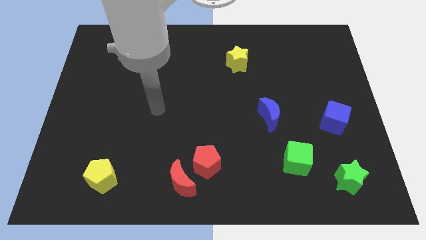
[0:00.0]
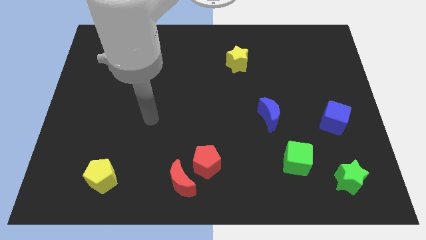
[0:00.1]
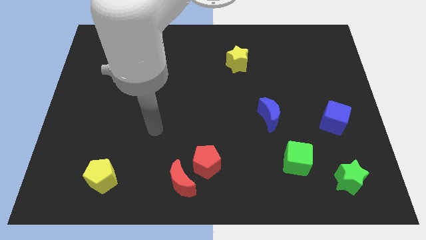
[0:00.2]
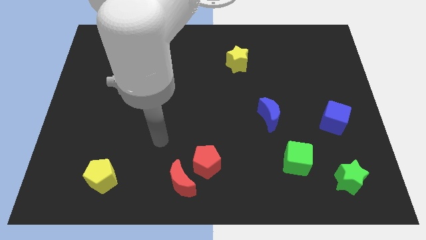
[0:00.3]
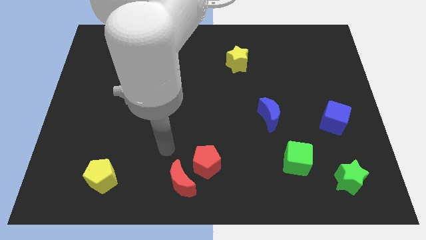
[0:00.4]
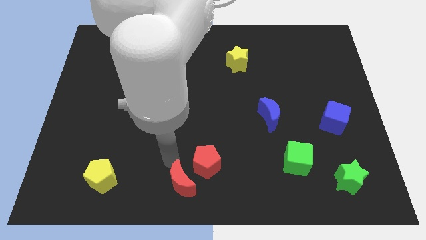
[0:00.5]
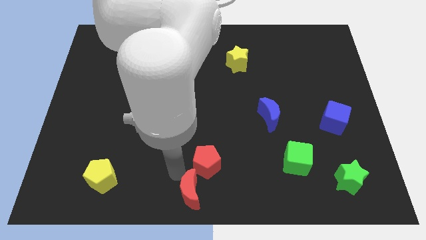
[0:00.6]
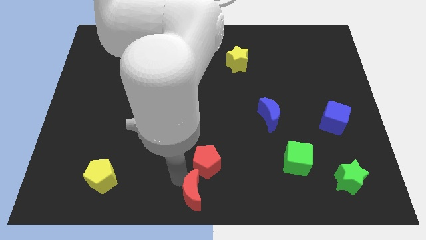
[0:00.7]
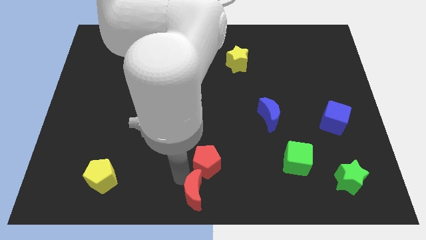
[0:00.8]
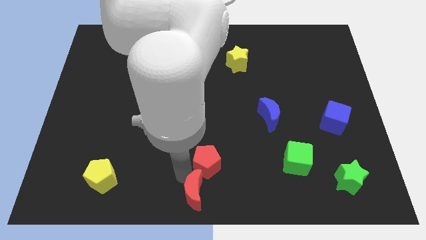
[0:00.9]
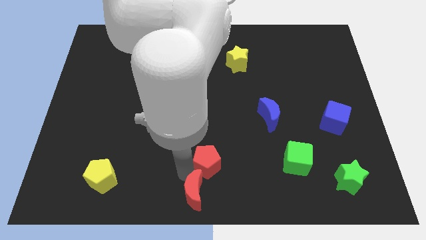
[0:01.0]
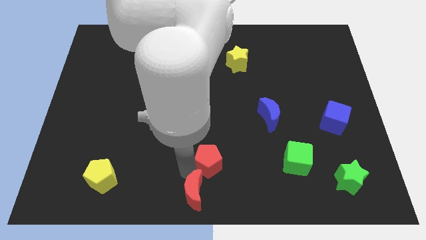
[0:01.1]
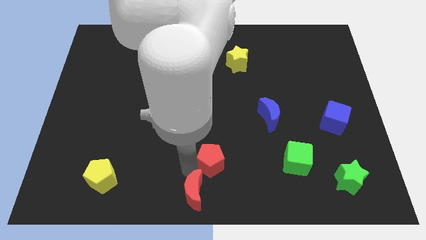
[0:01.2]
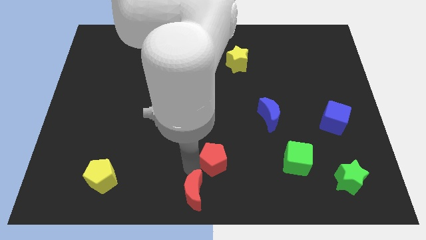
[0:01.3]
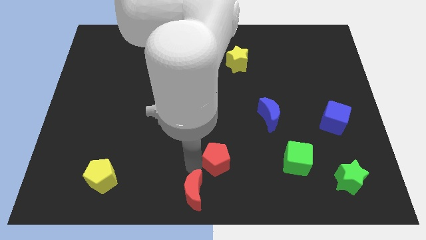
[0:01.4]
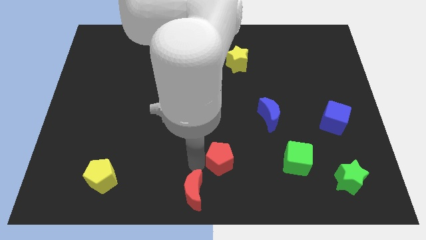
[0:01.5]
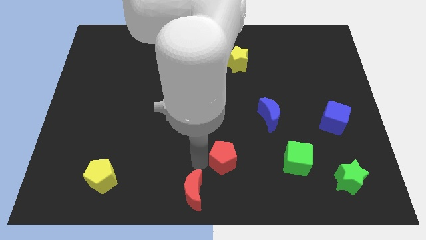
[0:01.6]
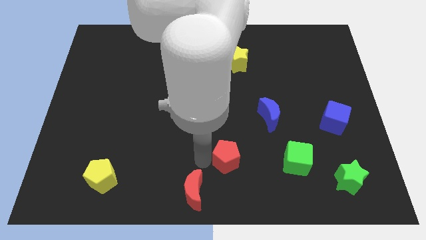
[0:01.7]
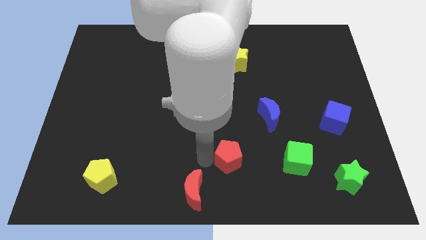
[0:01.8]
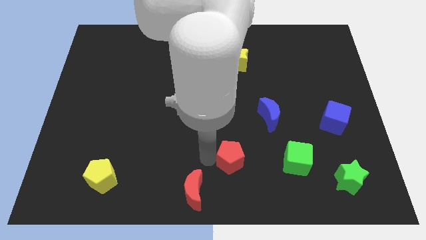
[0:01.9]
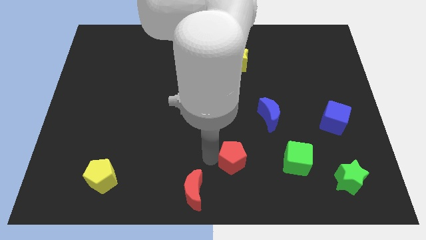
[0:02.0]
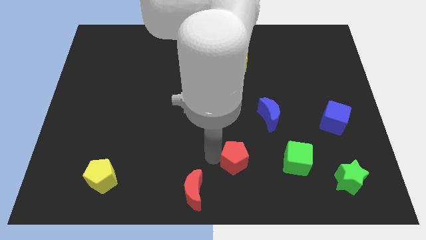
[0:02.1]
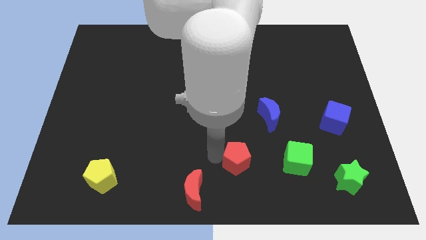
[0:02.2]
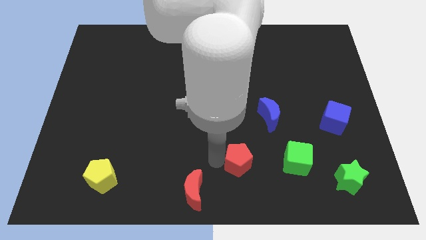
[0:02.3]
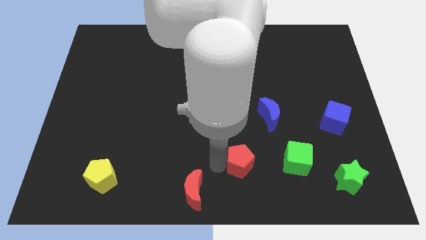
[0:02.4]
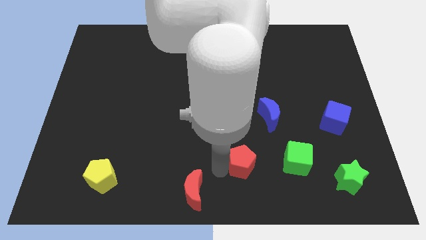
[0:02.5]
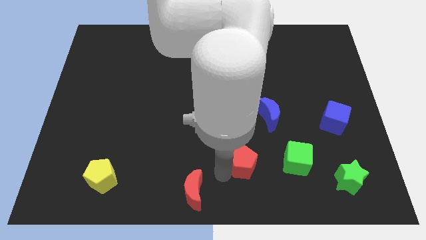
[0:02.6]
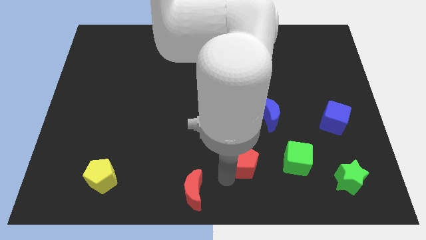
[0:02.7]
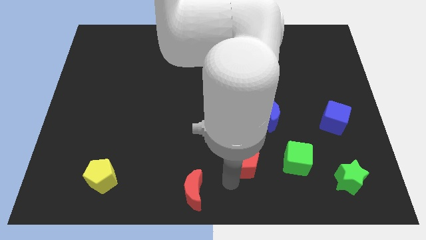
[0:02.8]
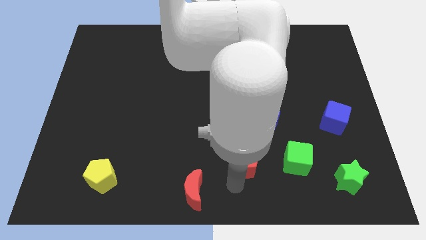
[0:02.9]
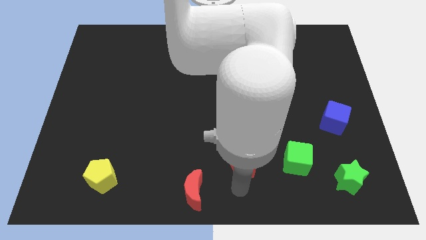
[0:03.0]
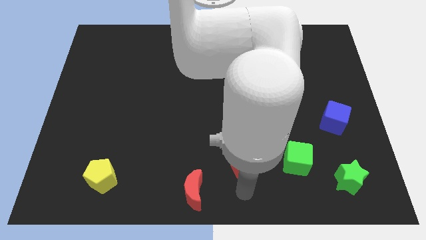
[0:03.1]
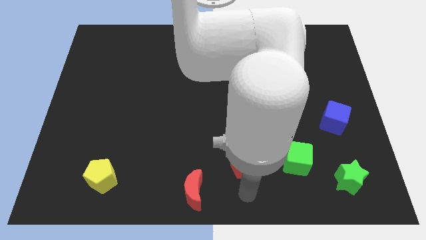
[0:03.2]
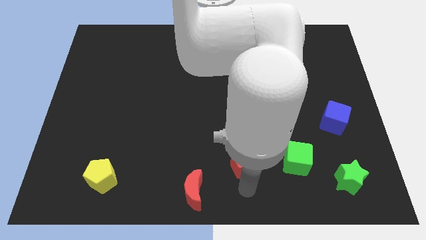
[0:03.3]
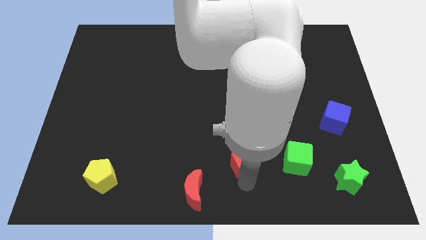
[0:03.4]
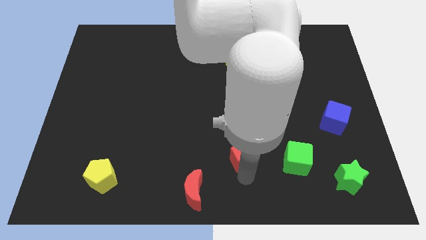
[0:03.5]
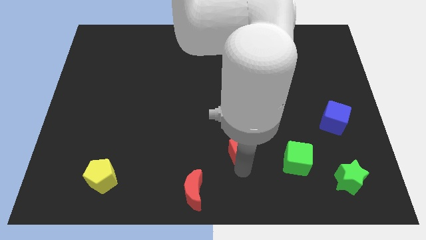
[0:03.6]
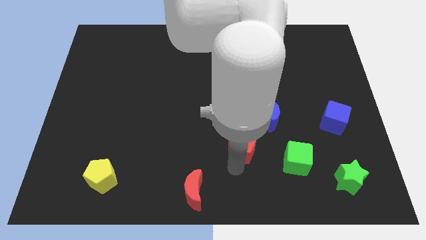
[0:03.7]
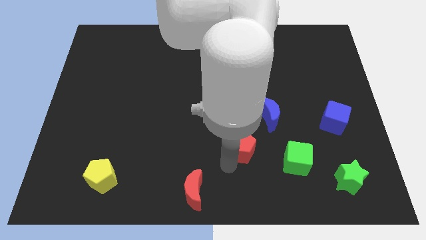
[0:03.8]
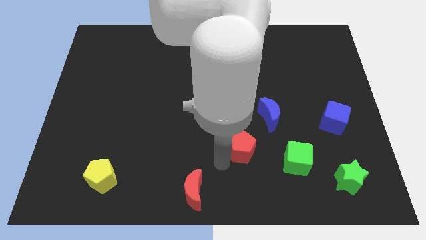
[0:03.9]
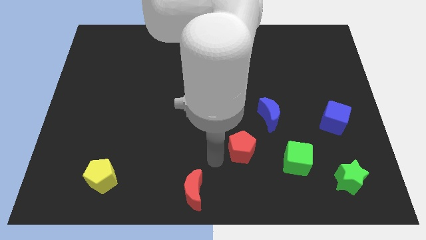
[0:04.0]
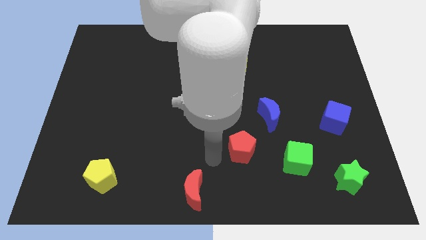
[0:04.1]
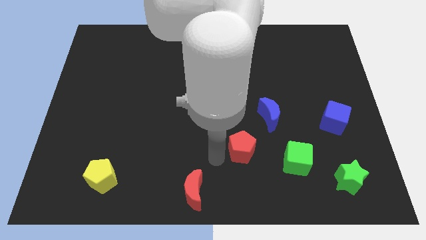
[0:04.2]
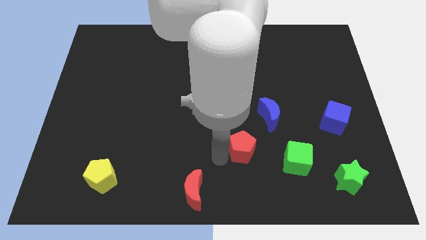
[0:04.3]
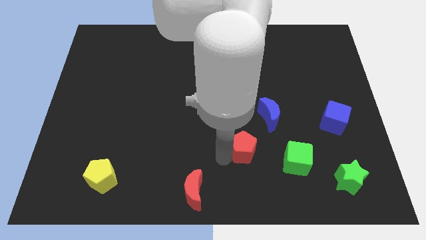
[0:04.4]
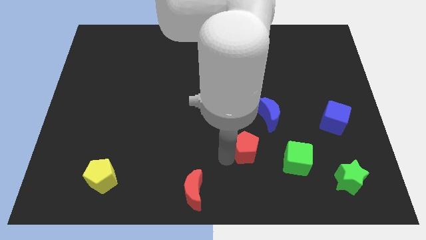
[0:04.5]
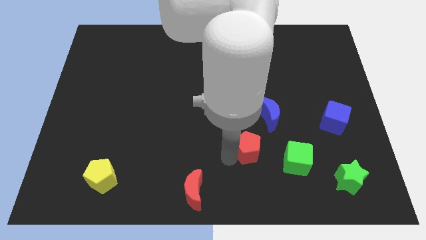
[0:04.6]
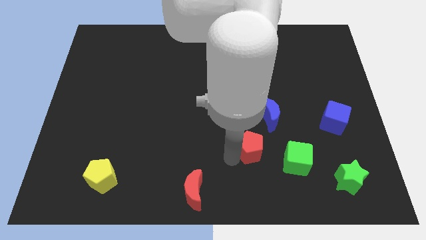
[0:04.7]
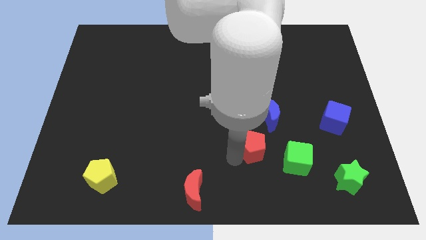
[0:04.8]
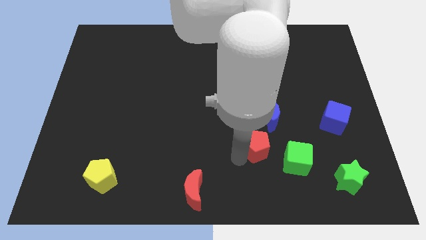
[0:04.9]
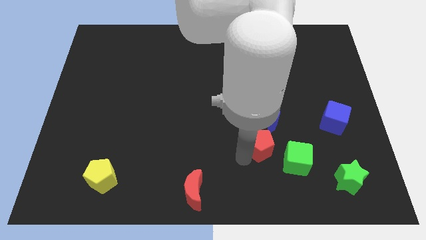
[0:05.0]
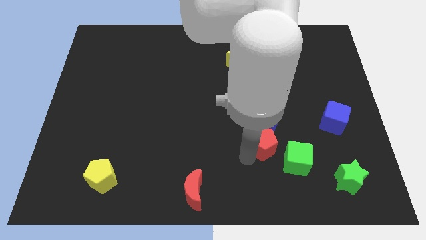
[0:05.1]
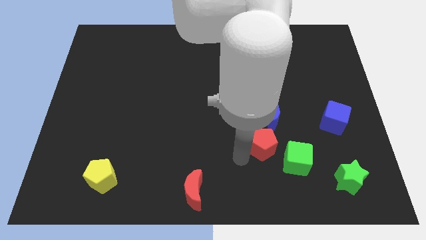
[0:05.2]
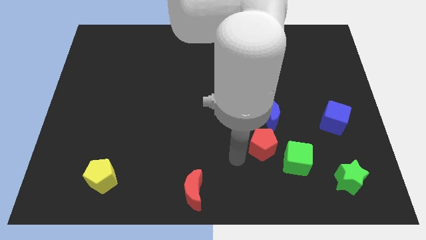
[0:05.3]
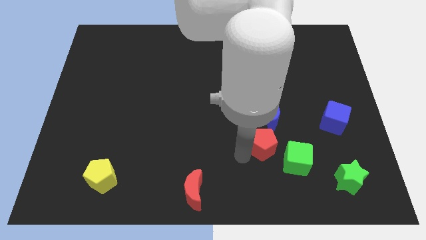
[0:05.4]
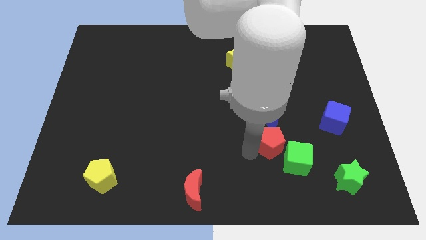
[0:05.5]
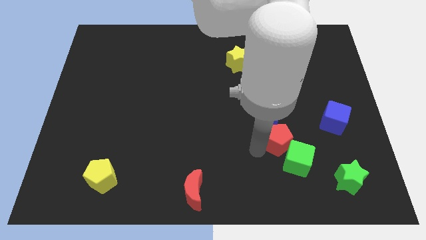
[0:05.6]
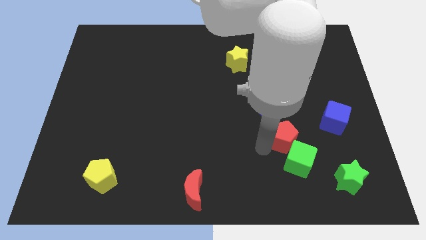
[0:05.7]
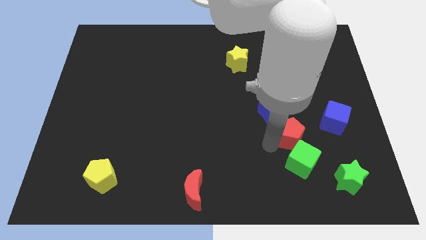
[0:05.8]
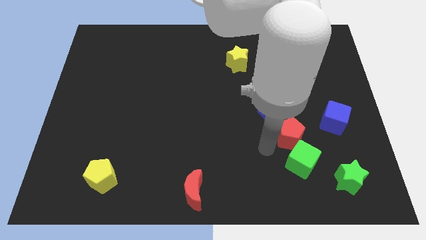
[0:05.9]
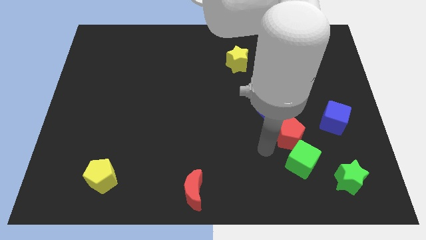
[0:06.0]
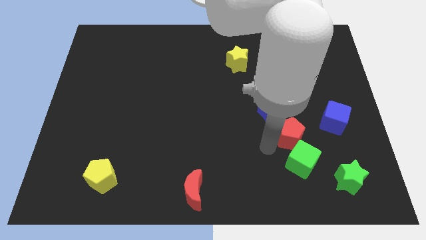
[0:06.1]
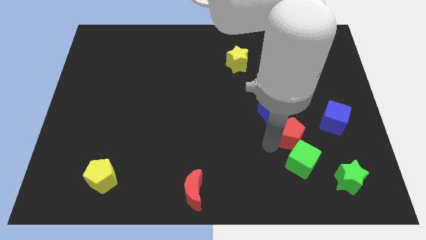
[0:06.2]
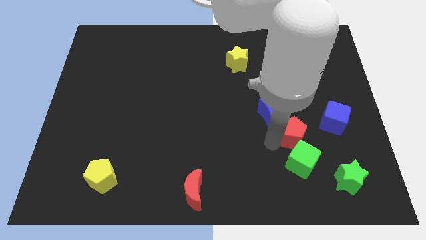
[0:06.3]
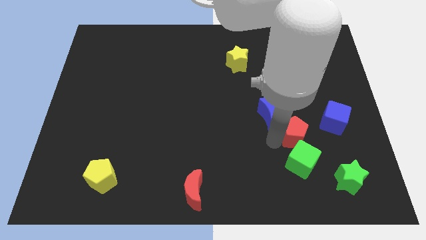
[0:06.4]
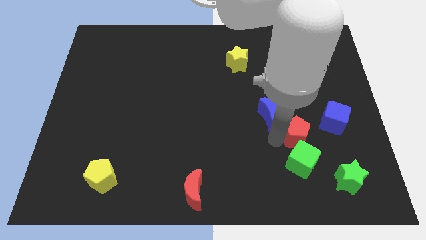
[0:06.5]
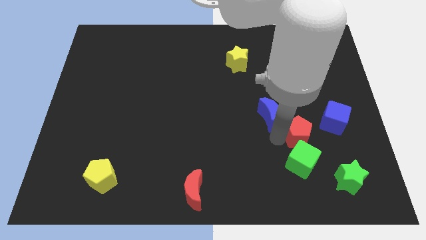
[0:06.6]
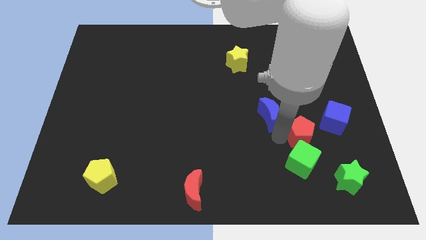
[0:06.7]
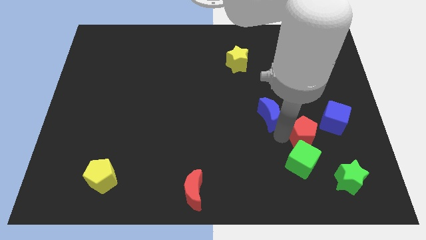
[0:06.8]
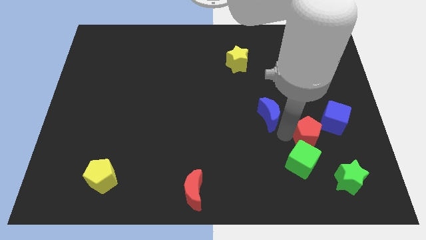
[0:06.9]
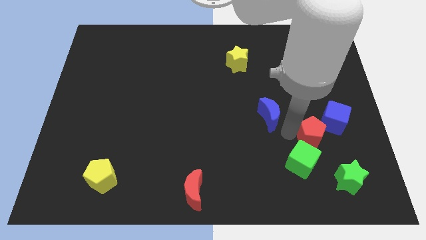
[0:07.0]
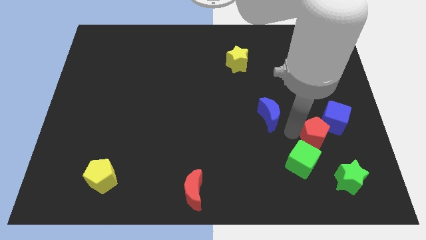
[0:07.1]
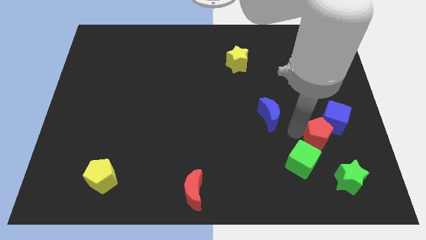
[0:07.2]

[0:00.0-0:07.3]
push the red pentagon towards the blue cube
